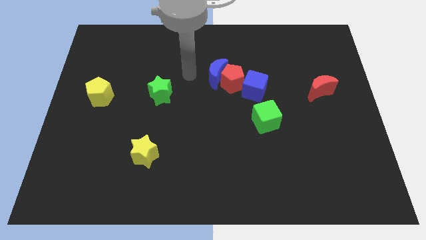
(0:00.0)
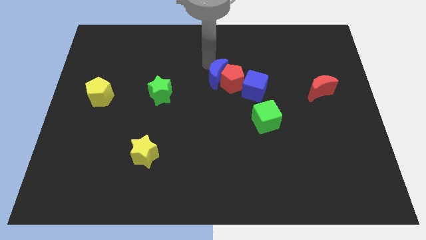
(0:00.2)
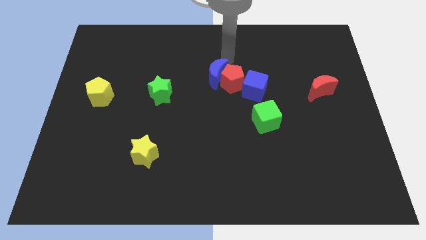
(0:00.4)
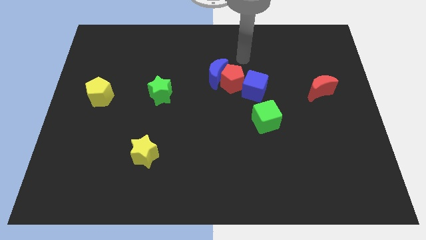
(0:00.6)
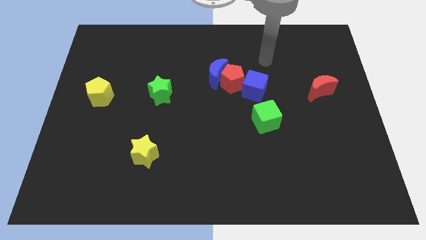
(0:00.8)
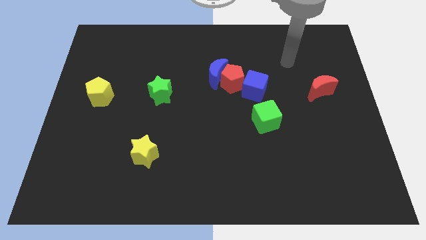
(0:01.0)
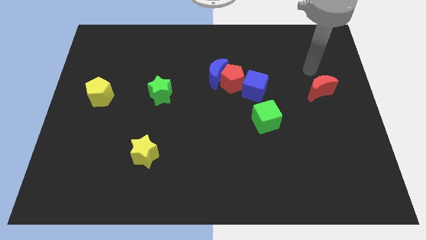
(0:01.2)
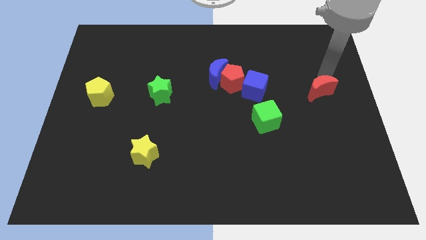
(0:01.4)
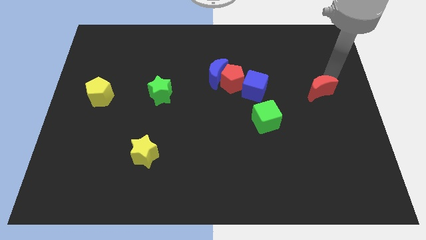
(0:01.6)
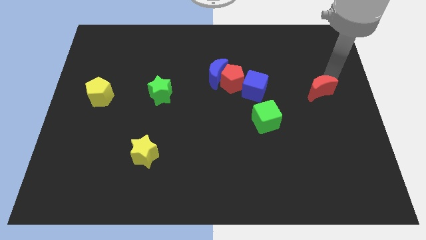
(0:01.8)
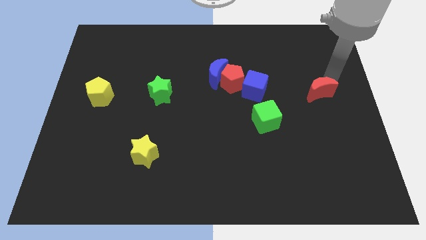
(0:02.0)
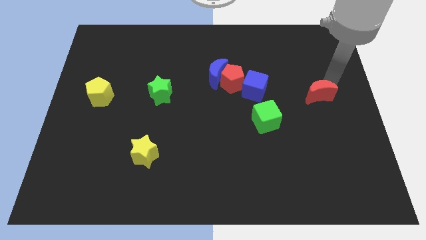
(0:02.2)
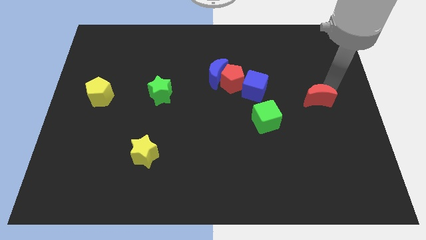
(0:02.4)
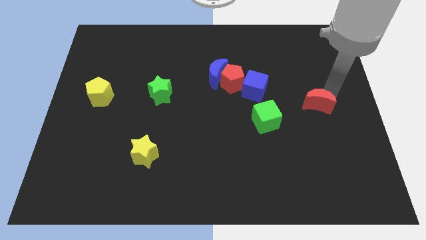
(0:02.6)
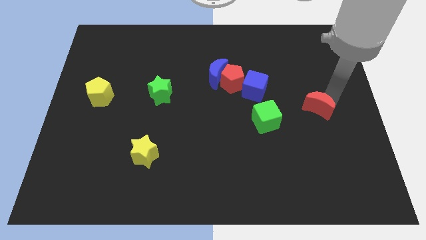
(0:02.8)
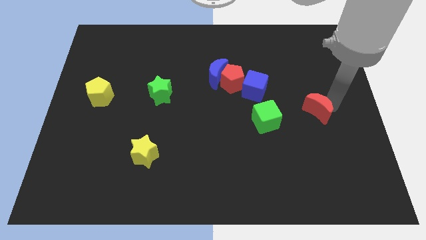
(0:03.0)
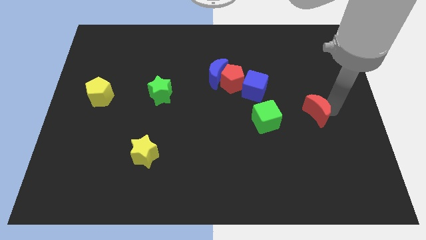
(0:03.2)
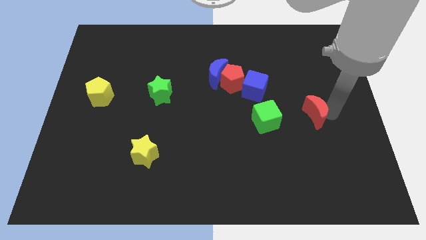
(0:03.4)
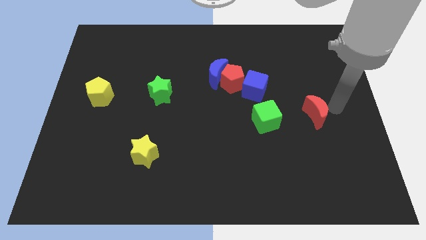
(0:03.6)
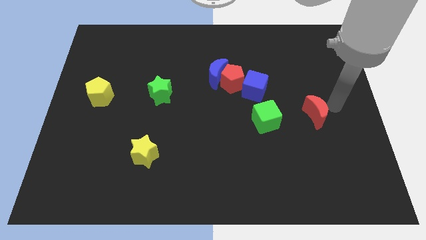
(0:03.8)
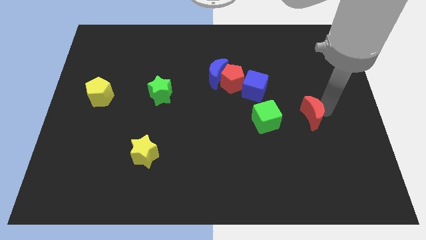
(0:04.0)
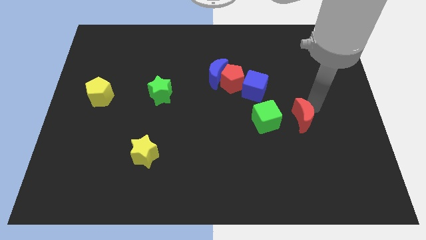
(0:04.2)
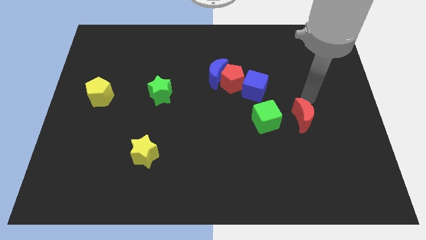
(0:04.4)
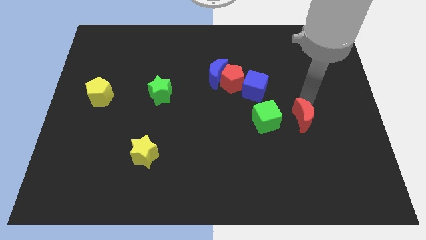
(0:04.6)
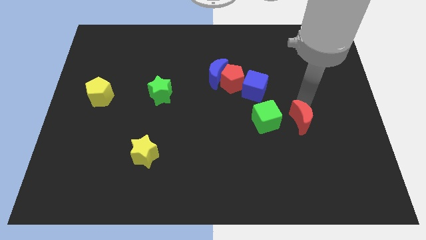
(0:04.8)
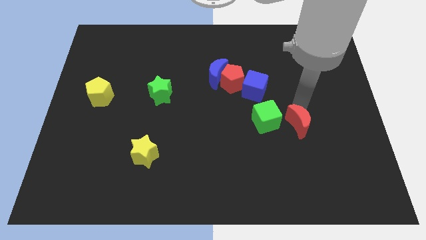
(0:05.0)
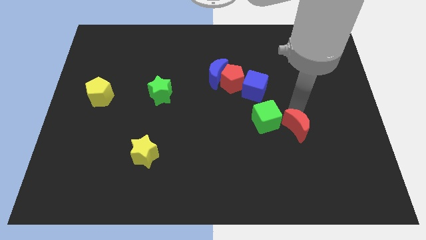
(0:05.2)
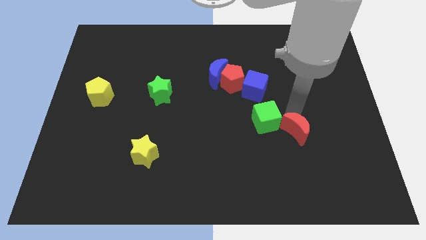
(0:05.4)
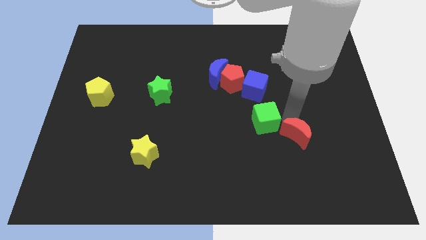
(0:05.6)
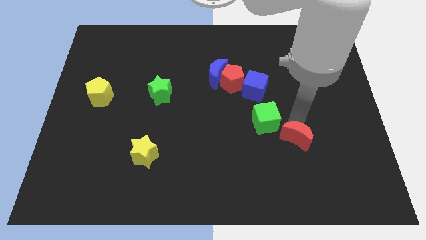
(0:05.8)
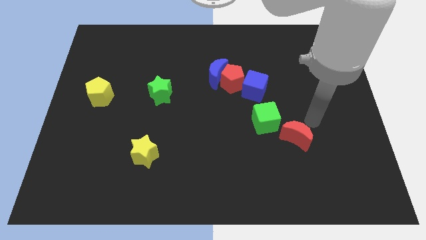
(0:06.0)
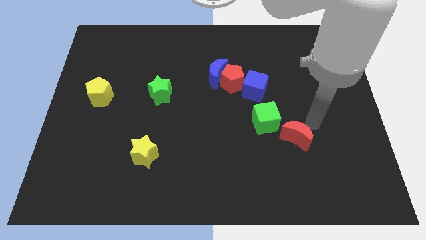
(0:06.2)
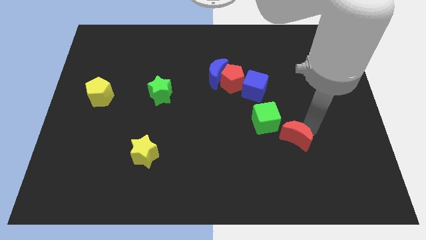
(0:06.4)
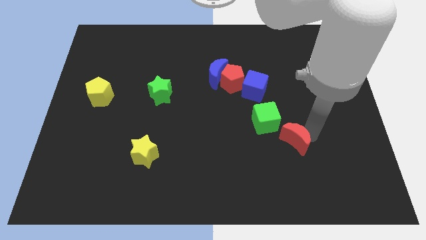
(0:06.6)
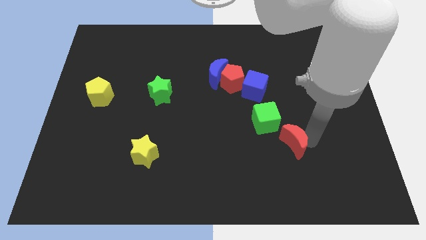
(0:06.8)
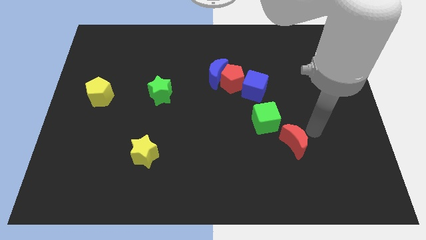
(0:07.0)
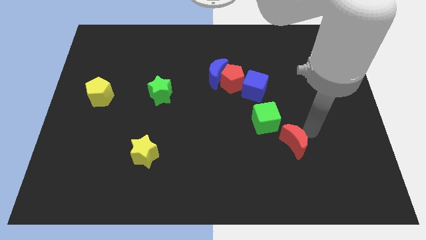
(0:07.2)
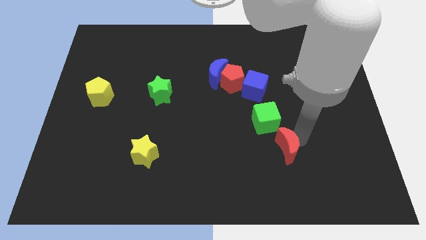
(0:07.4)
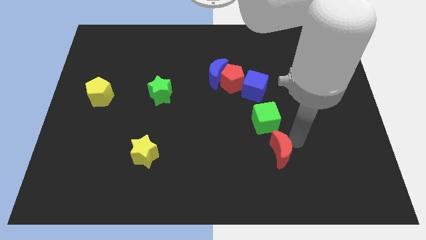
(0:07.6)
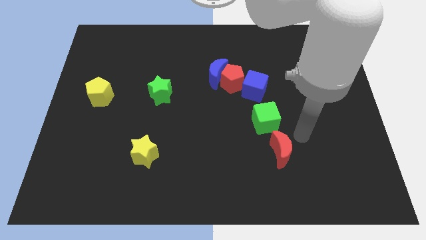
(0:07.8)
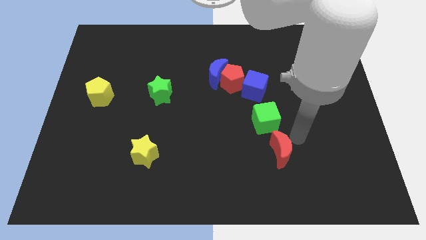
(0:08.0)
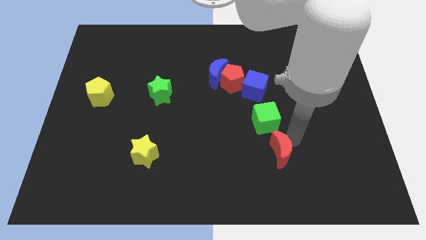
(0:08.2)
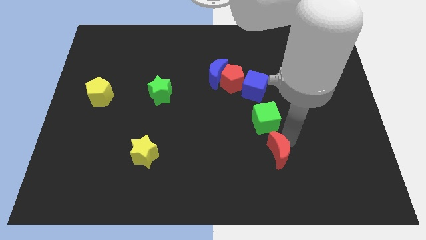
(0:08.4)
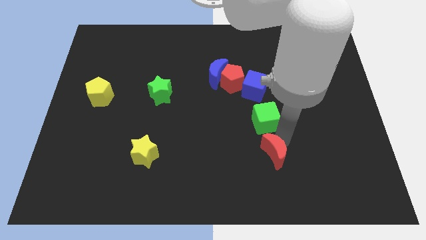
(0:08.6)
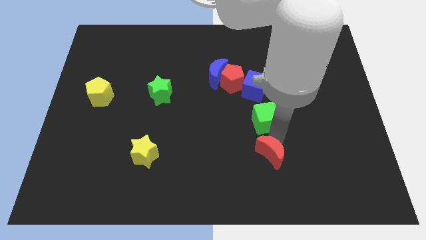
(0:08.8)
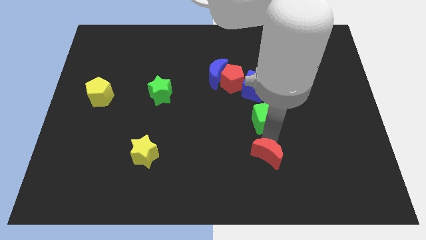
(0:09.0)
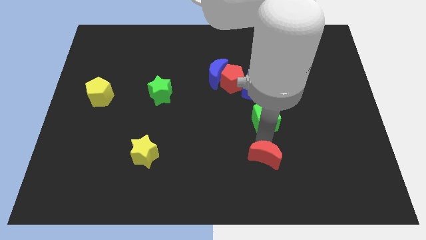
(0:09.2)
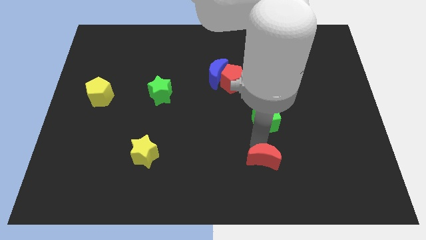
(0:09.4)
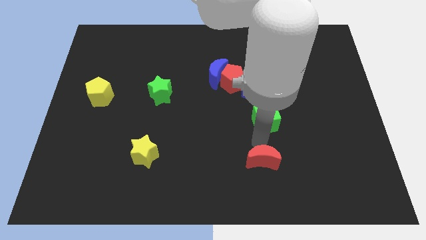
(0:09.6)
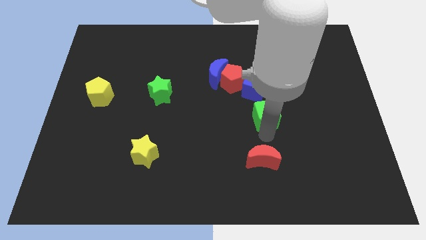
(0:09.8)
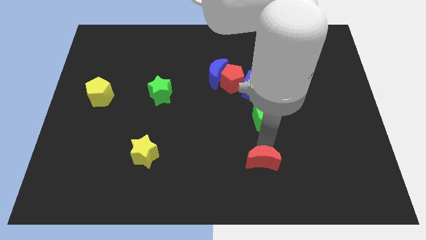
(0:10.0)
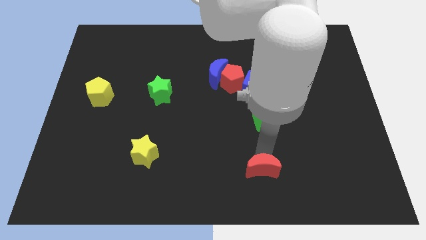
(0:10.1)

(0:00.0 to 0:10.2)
put the red moon to the bottom side
